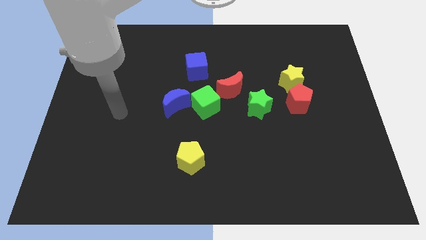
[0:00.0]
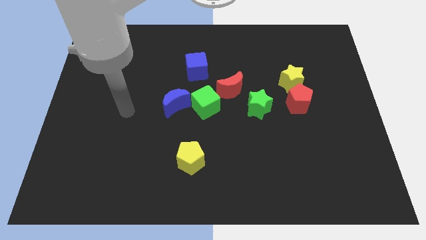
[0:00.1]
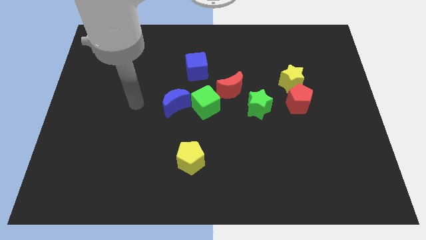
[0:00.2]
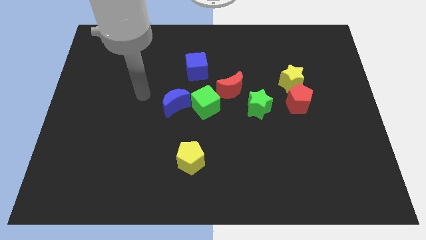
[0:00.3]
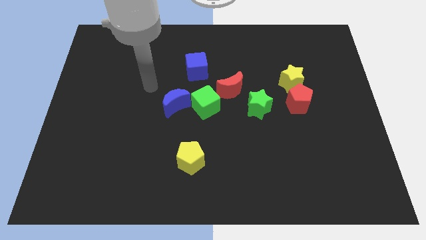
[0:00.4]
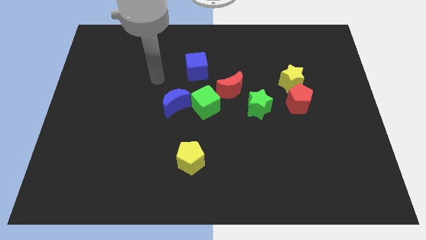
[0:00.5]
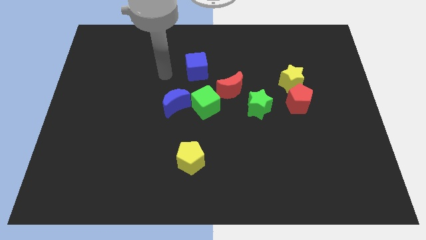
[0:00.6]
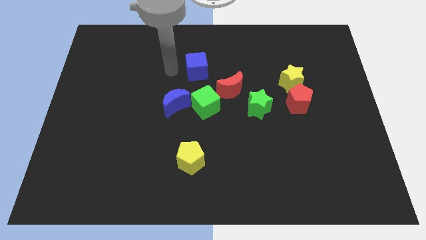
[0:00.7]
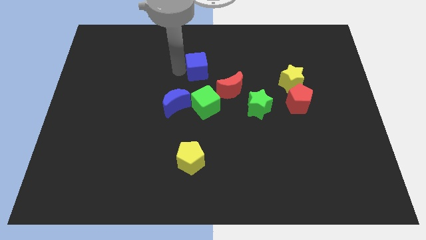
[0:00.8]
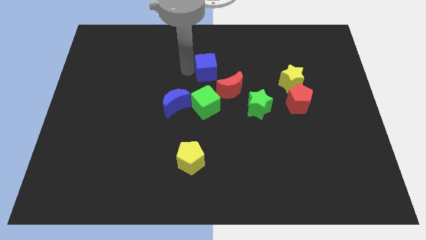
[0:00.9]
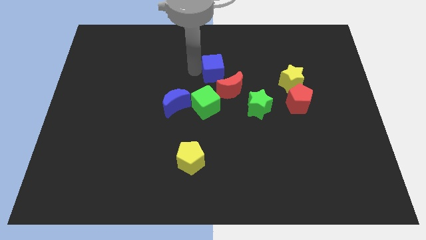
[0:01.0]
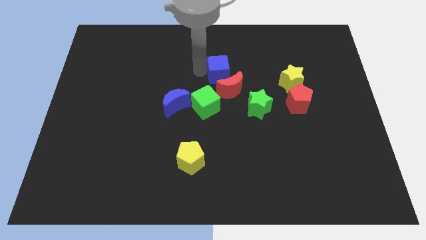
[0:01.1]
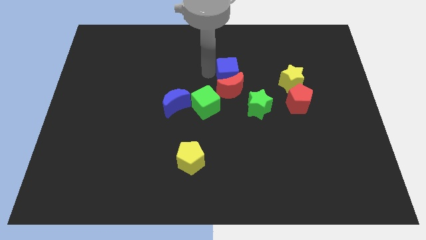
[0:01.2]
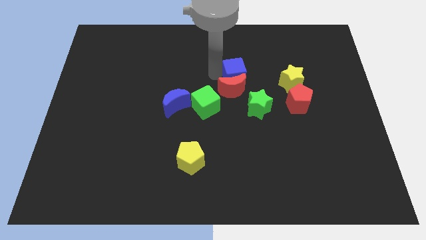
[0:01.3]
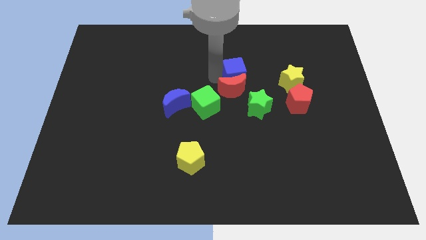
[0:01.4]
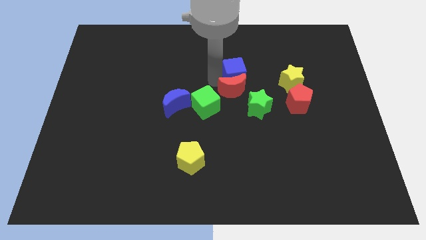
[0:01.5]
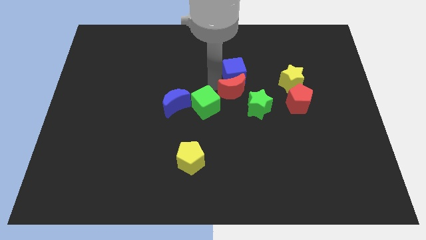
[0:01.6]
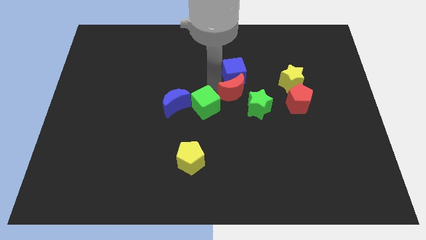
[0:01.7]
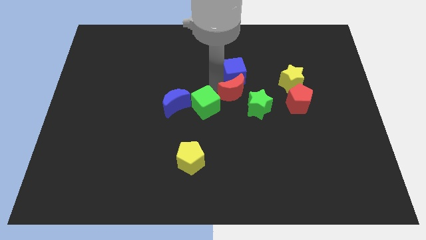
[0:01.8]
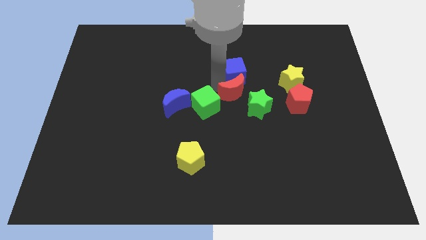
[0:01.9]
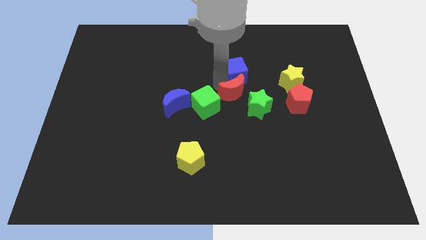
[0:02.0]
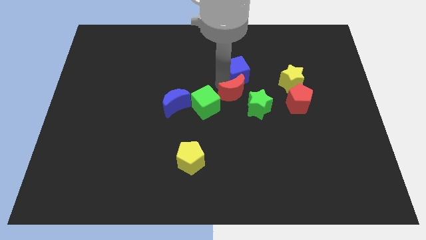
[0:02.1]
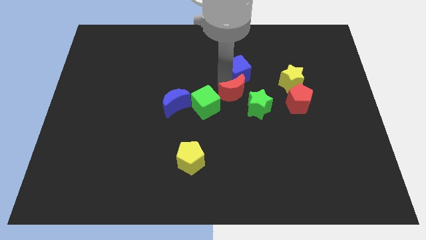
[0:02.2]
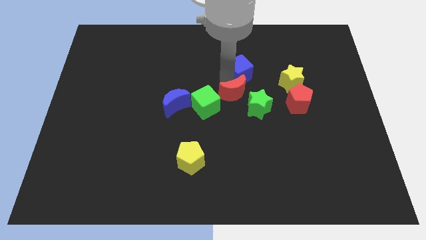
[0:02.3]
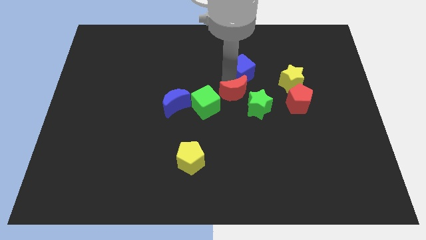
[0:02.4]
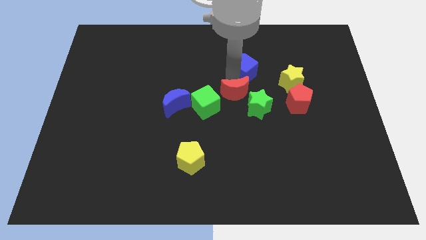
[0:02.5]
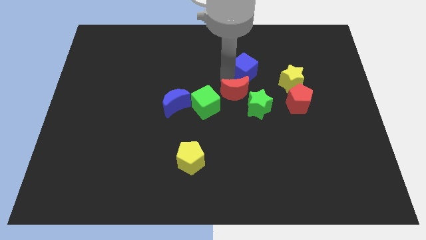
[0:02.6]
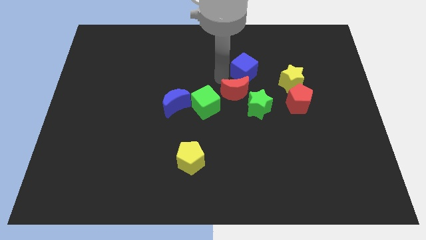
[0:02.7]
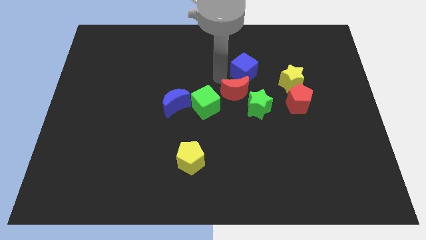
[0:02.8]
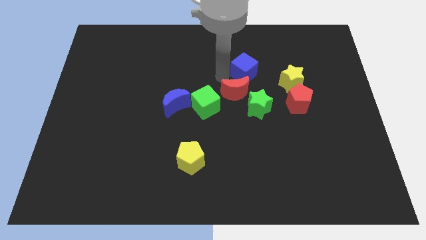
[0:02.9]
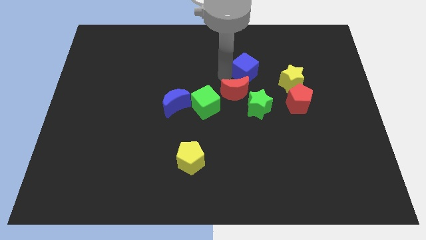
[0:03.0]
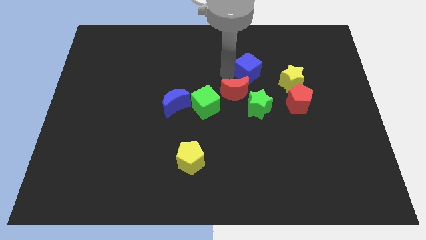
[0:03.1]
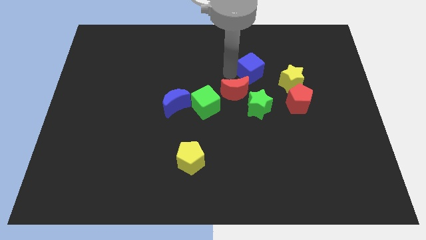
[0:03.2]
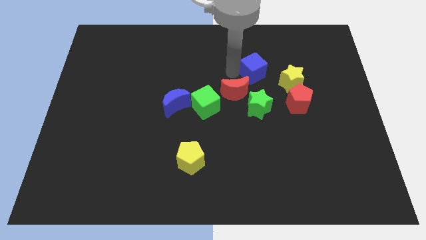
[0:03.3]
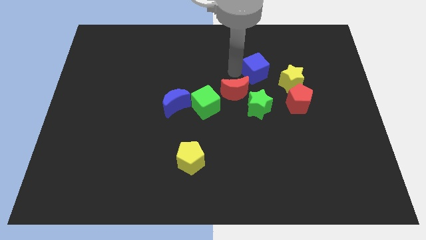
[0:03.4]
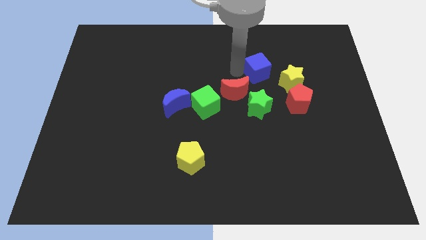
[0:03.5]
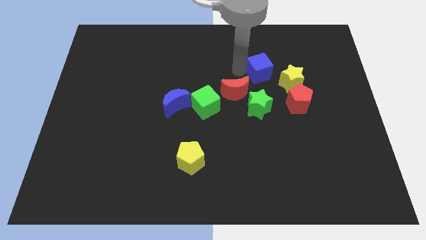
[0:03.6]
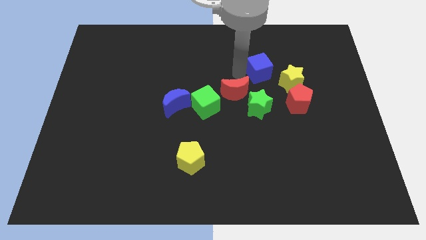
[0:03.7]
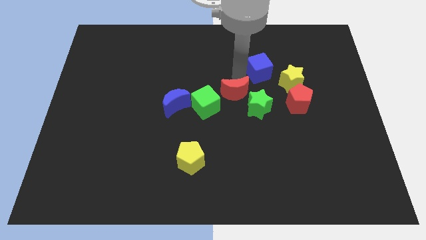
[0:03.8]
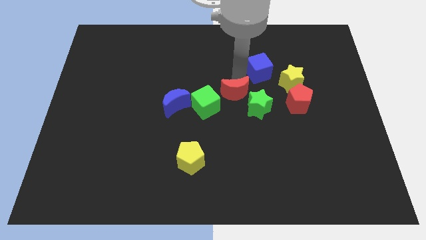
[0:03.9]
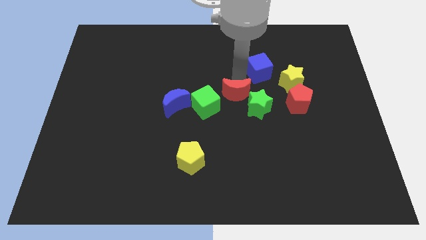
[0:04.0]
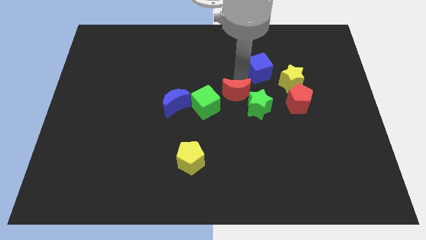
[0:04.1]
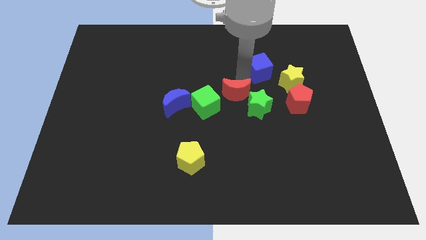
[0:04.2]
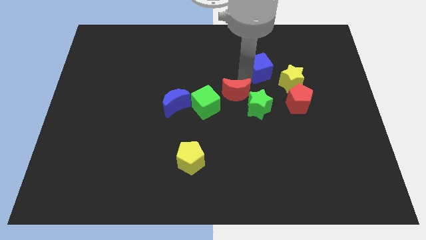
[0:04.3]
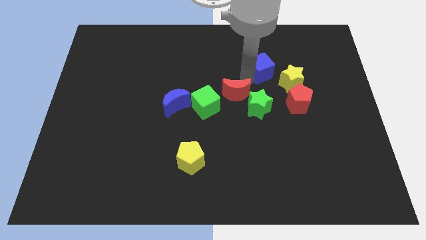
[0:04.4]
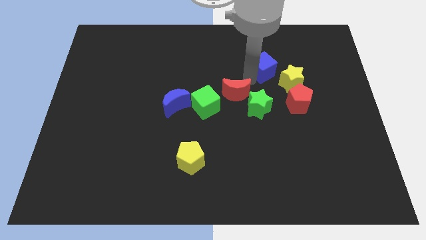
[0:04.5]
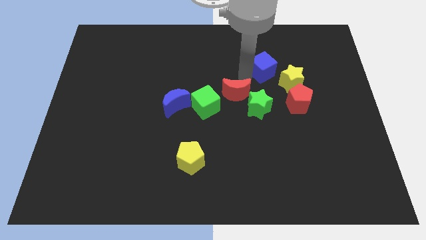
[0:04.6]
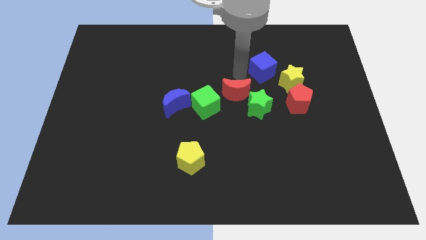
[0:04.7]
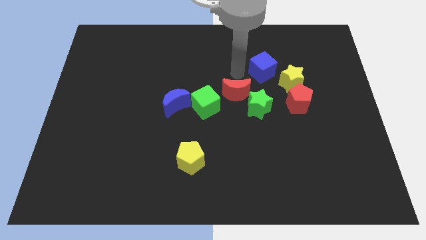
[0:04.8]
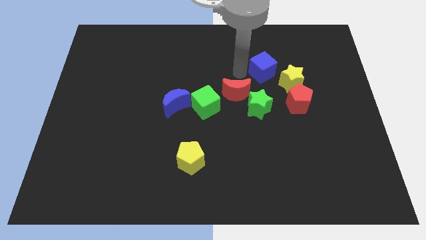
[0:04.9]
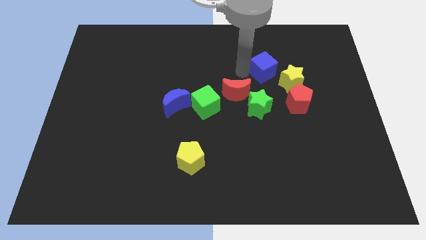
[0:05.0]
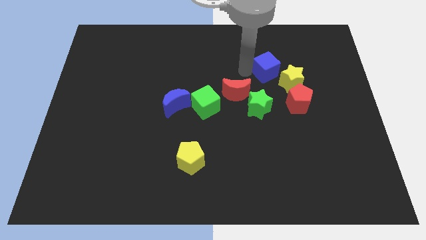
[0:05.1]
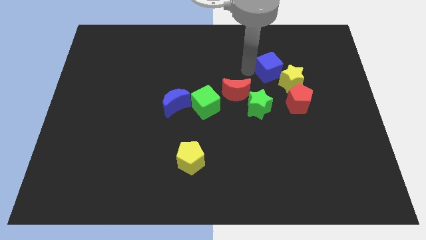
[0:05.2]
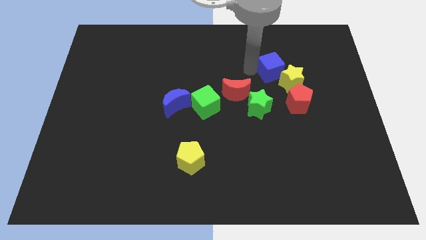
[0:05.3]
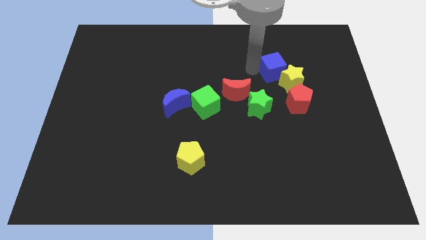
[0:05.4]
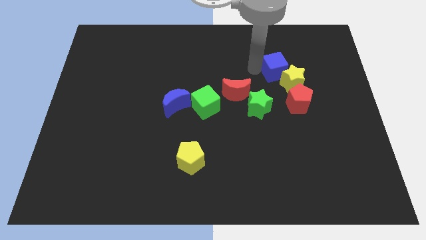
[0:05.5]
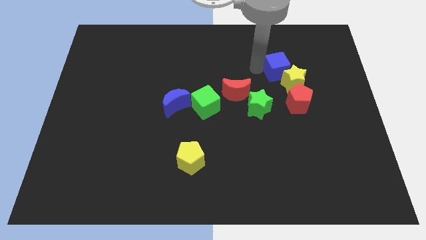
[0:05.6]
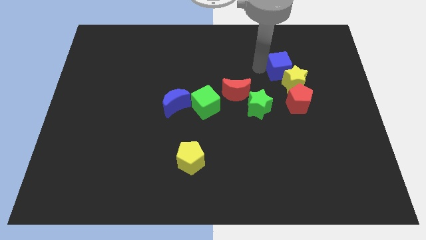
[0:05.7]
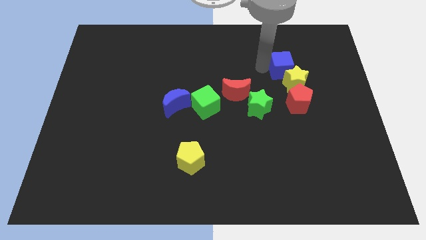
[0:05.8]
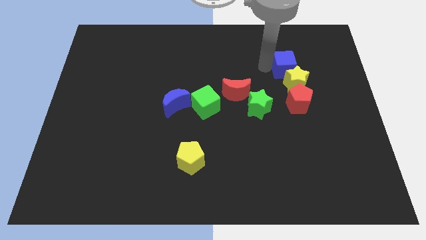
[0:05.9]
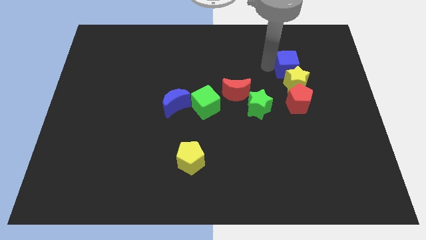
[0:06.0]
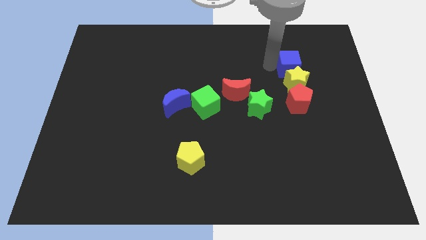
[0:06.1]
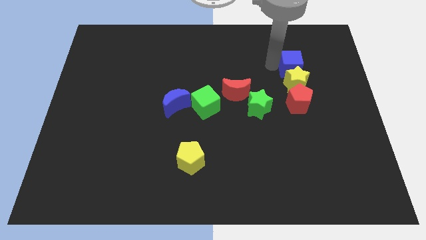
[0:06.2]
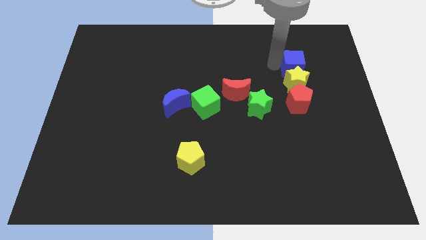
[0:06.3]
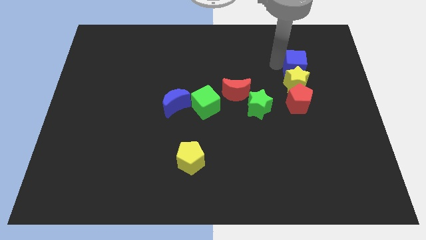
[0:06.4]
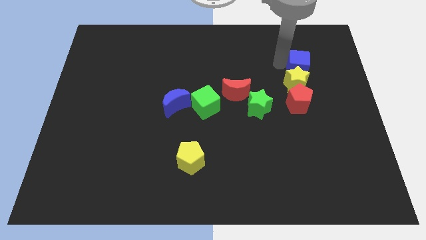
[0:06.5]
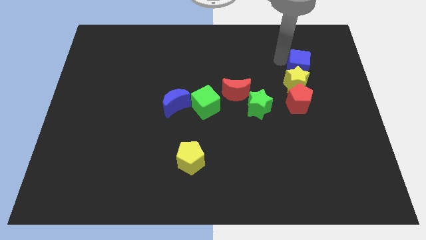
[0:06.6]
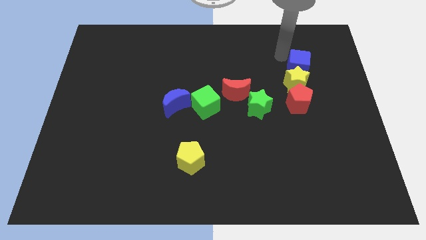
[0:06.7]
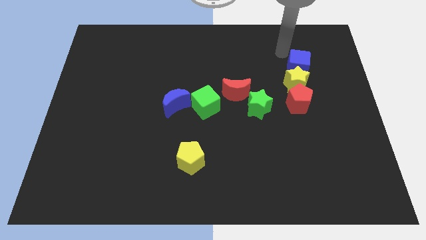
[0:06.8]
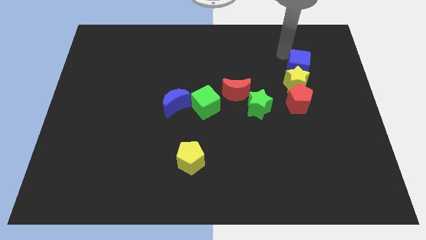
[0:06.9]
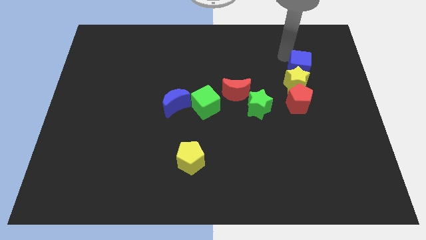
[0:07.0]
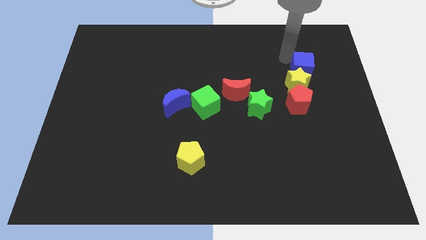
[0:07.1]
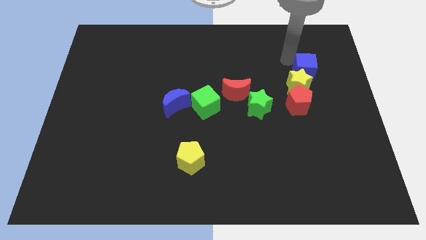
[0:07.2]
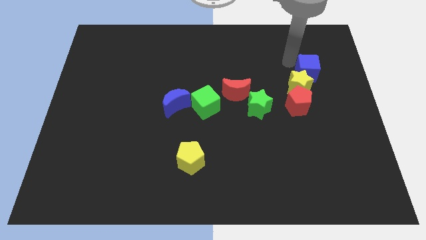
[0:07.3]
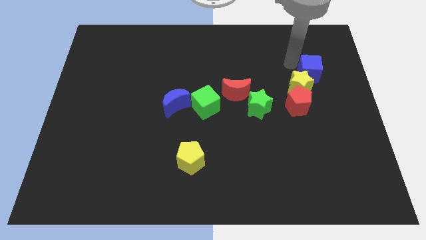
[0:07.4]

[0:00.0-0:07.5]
slide the blue cube to the top right side of the red pentagon
